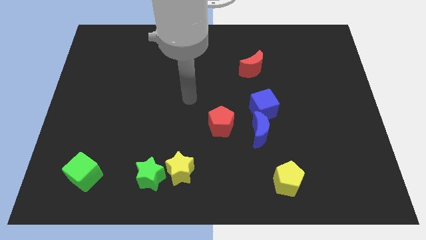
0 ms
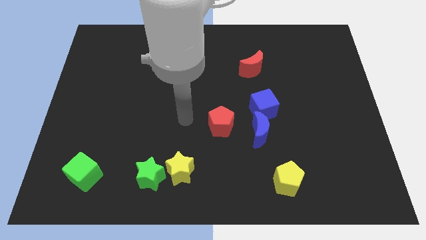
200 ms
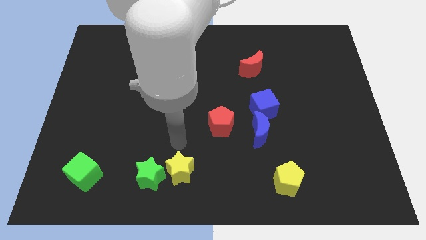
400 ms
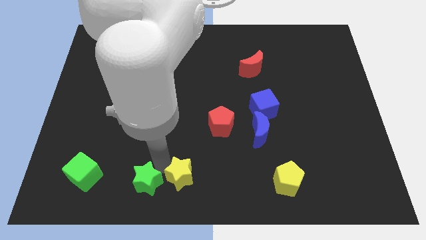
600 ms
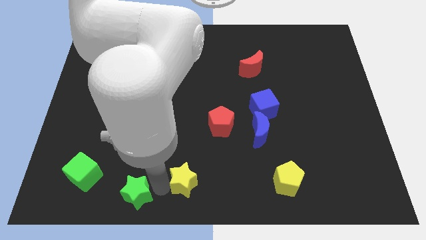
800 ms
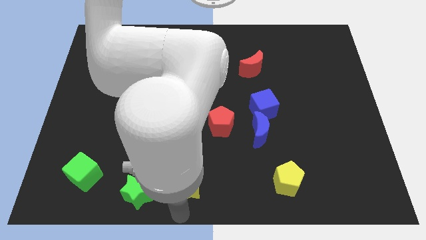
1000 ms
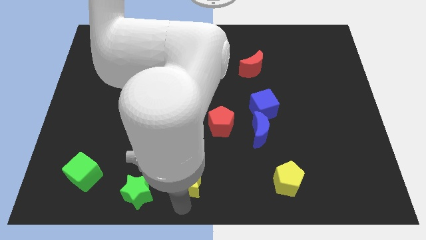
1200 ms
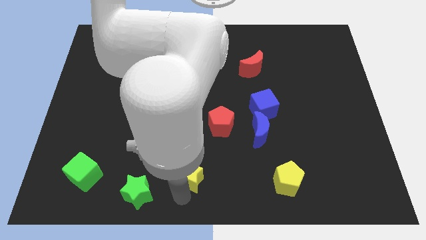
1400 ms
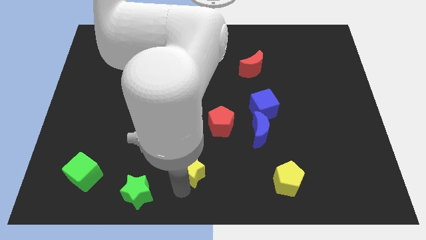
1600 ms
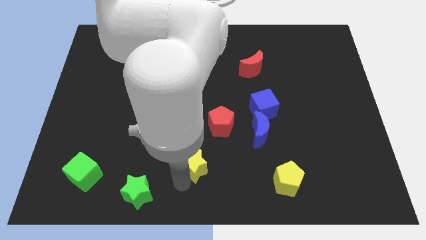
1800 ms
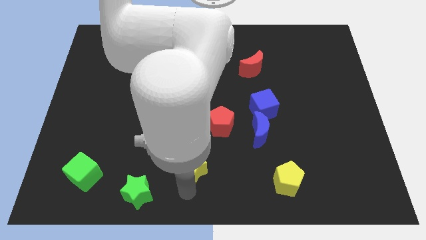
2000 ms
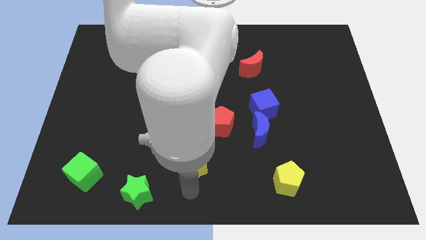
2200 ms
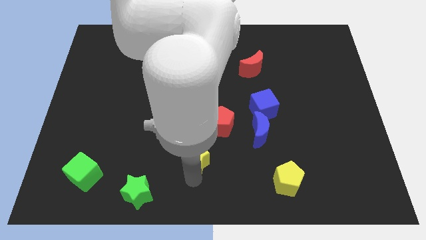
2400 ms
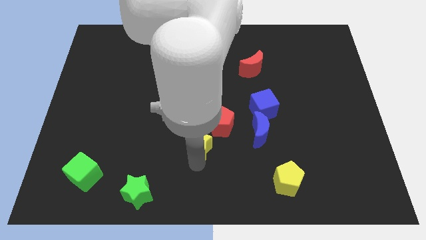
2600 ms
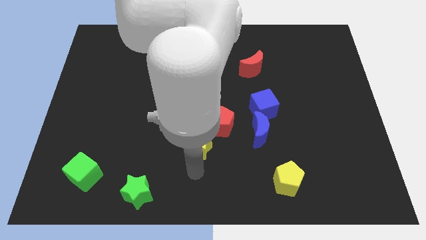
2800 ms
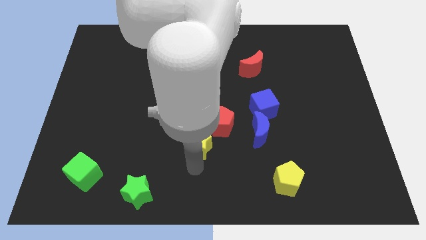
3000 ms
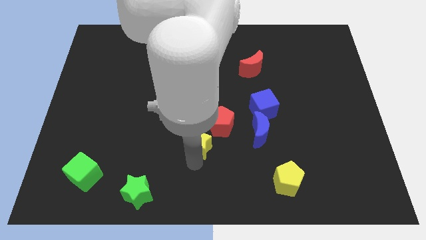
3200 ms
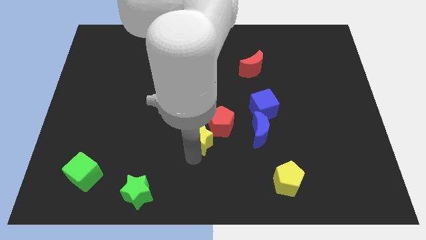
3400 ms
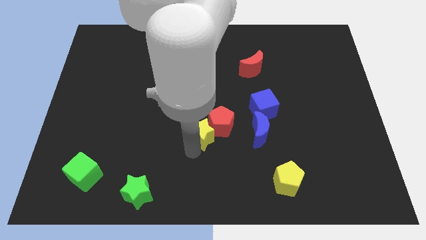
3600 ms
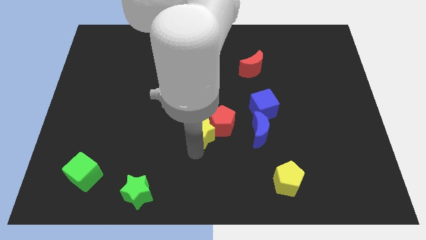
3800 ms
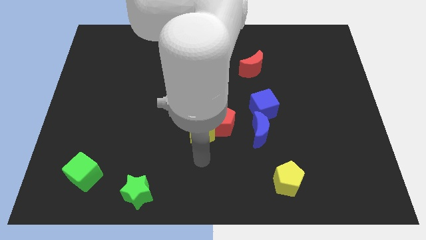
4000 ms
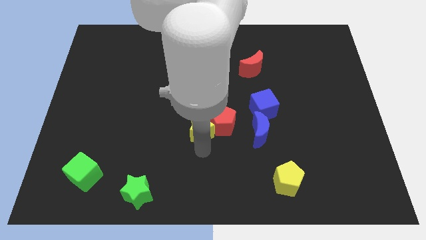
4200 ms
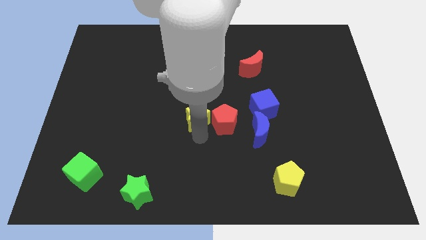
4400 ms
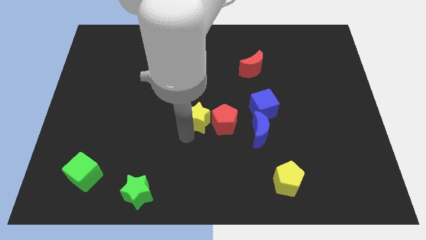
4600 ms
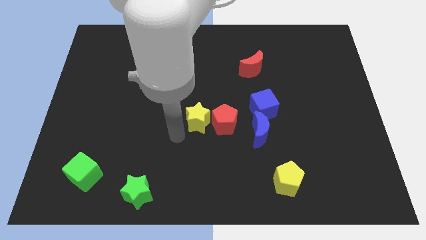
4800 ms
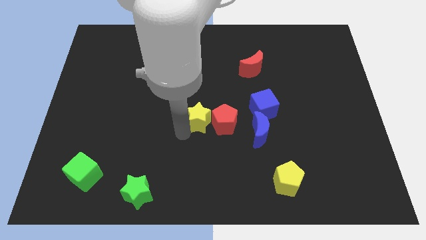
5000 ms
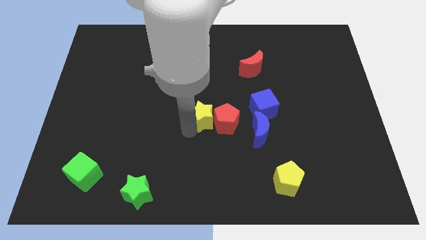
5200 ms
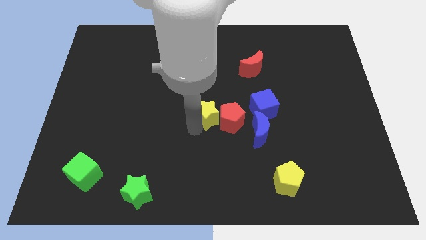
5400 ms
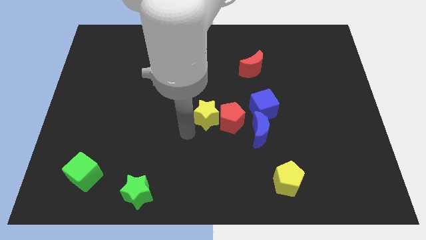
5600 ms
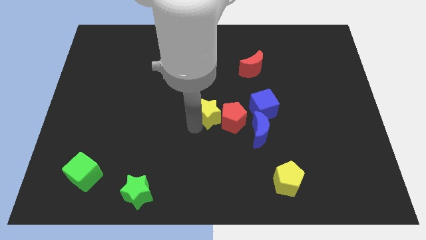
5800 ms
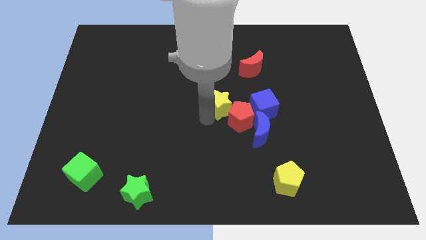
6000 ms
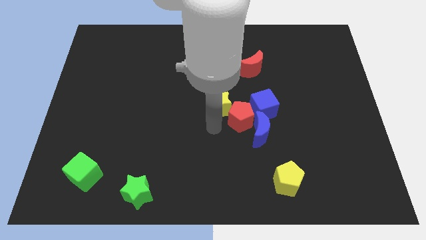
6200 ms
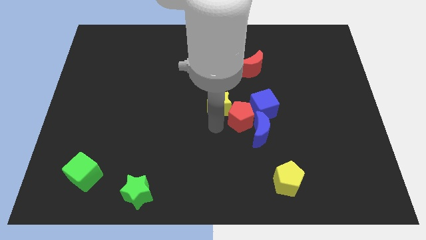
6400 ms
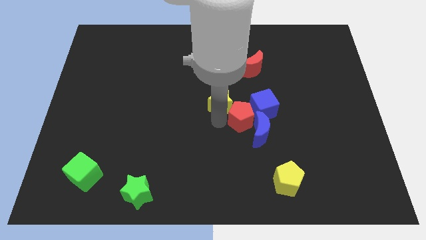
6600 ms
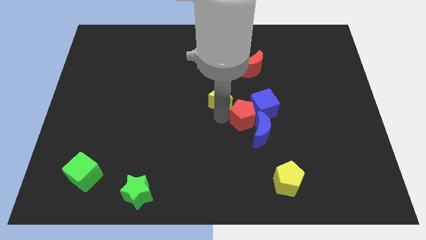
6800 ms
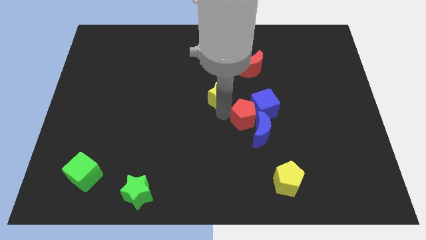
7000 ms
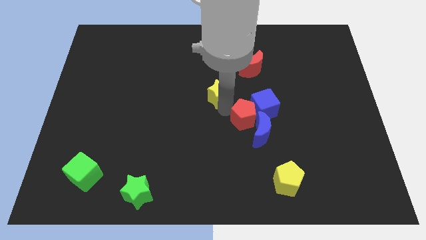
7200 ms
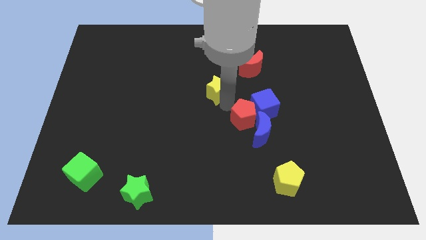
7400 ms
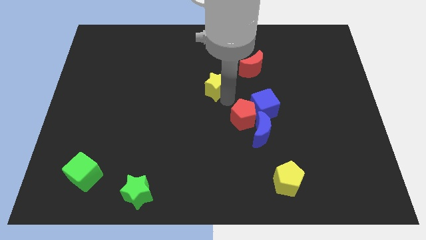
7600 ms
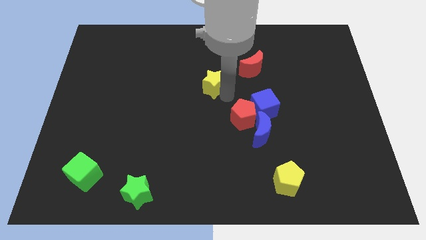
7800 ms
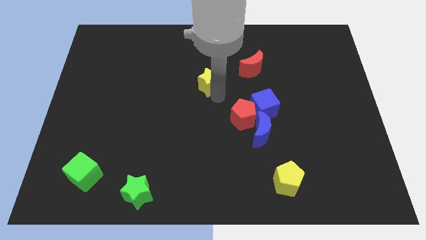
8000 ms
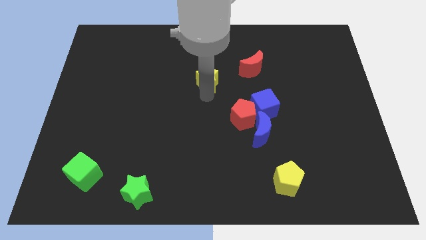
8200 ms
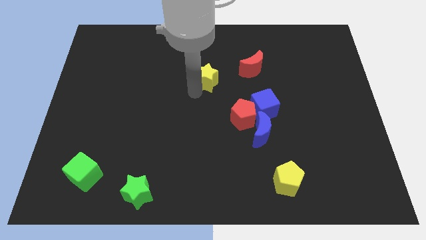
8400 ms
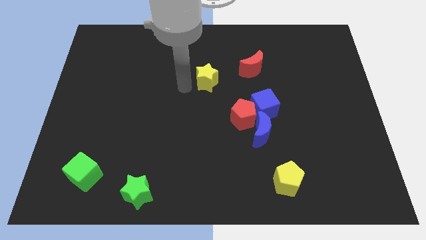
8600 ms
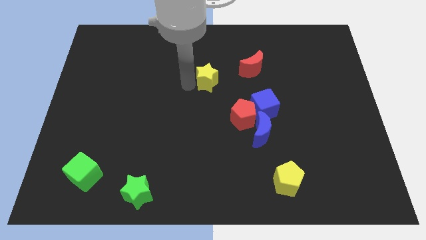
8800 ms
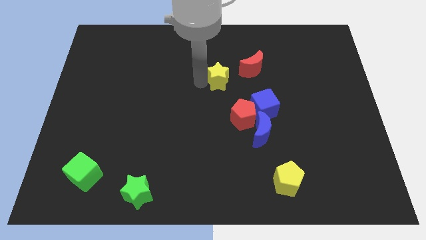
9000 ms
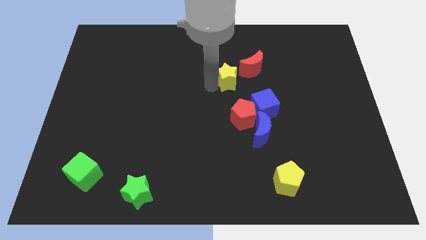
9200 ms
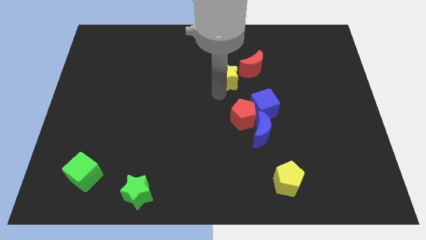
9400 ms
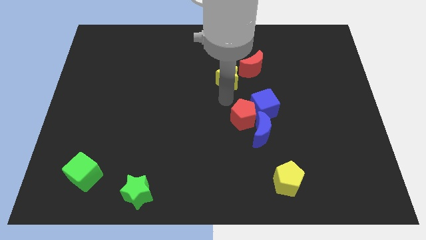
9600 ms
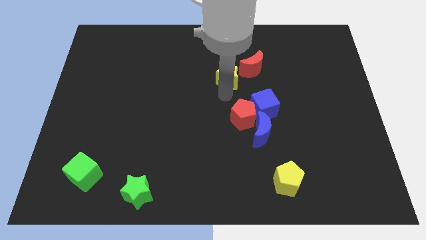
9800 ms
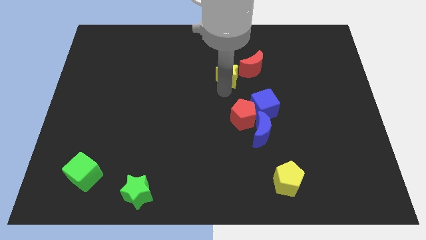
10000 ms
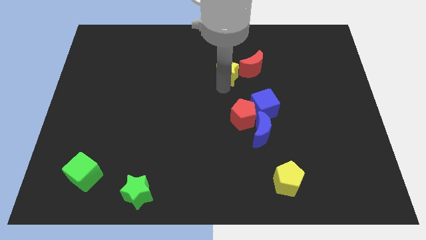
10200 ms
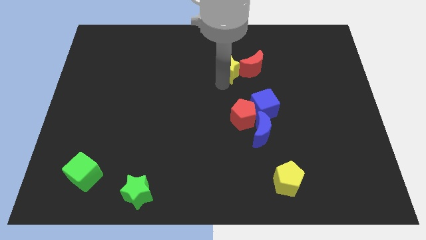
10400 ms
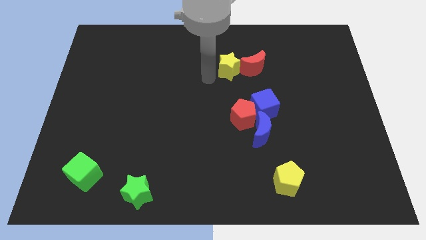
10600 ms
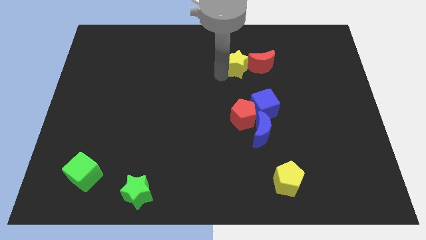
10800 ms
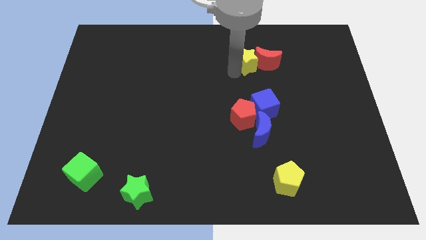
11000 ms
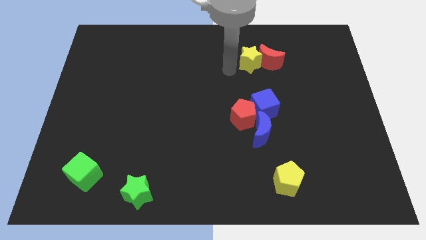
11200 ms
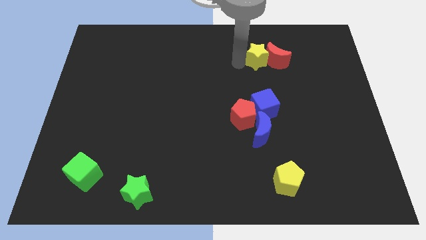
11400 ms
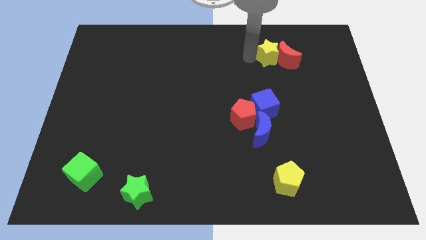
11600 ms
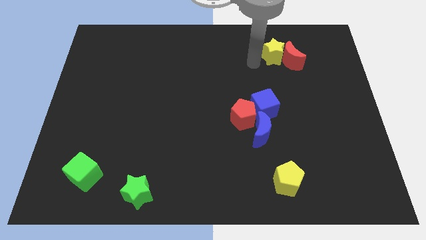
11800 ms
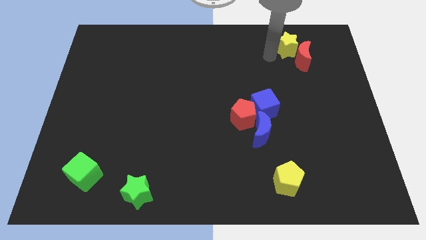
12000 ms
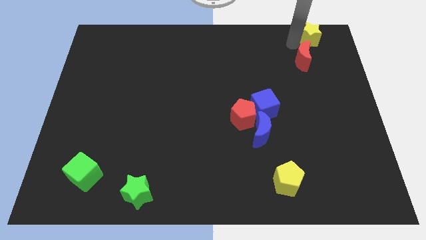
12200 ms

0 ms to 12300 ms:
slide the yellow star to the upper right corner

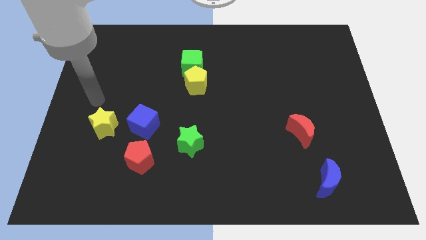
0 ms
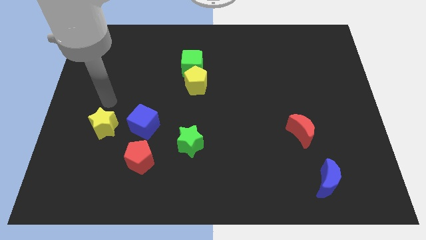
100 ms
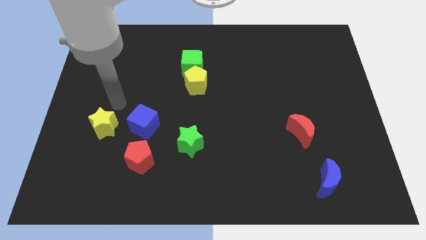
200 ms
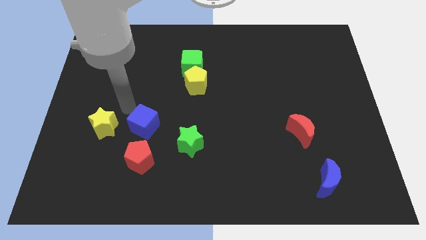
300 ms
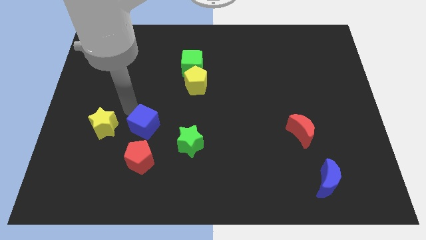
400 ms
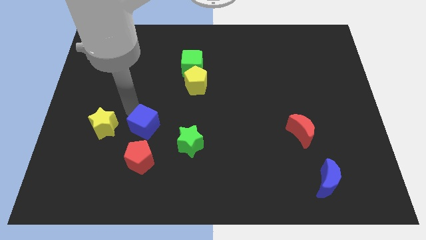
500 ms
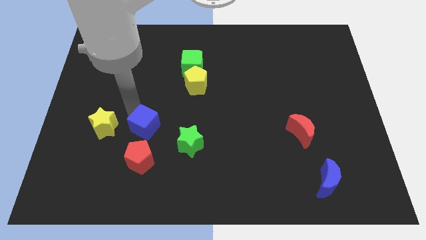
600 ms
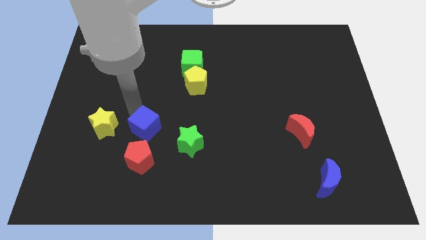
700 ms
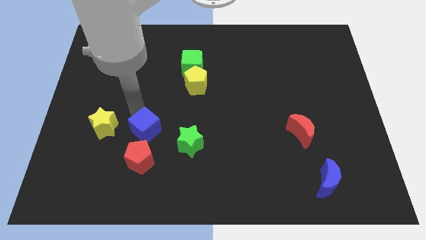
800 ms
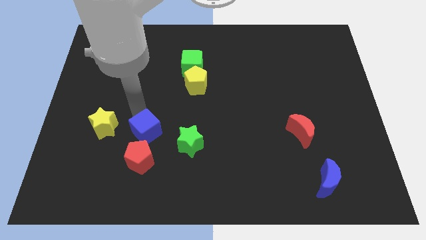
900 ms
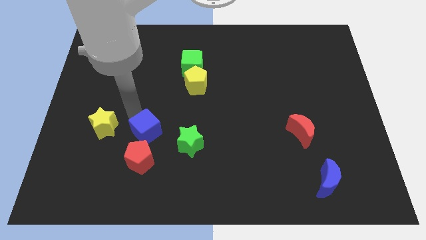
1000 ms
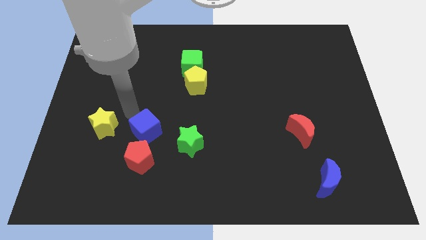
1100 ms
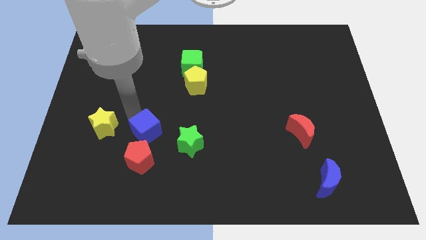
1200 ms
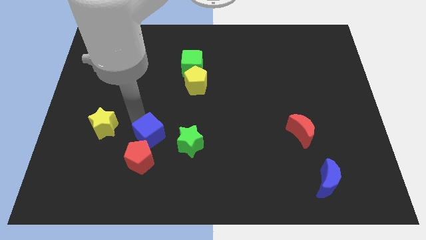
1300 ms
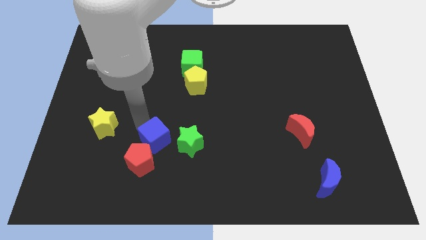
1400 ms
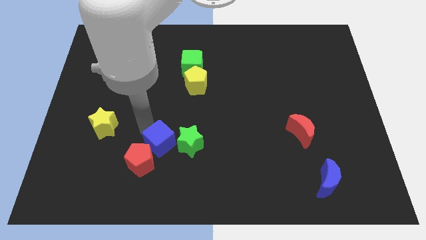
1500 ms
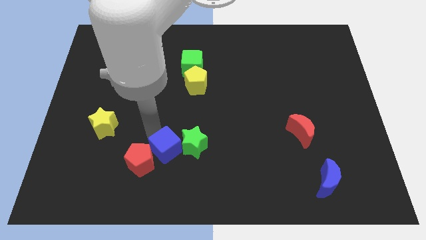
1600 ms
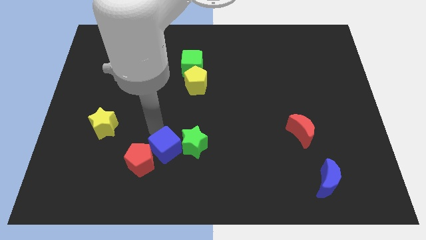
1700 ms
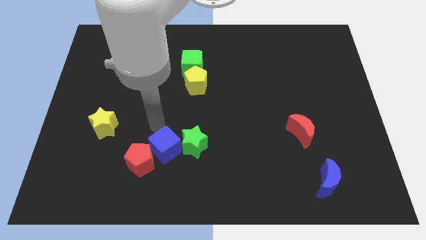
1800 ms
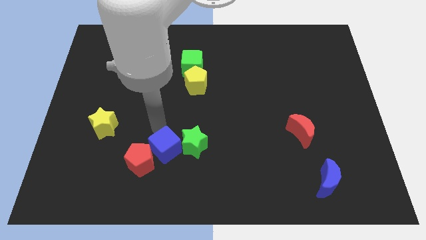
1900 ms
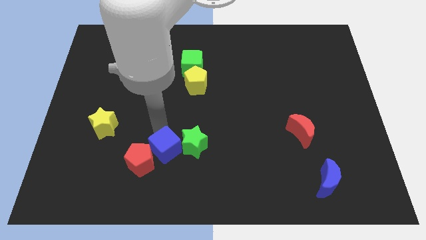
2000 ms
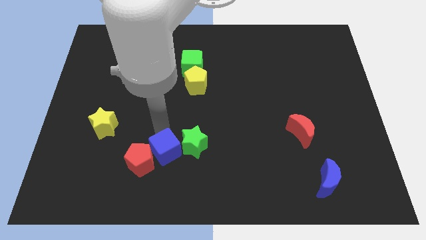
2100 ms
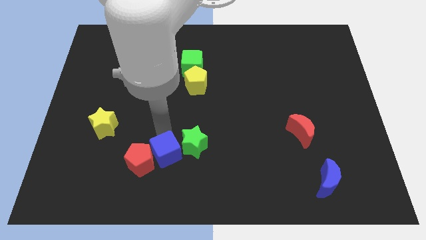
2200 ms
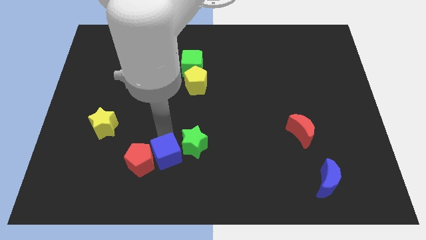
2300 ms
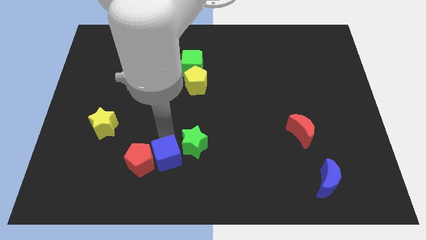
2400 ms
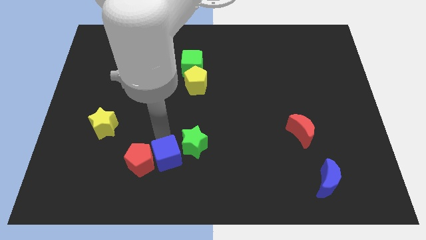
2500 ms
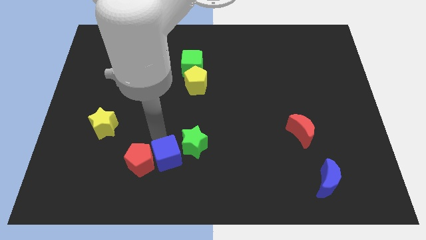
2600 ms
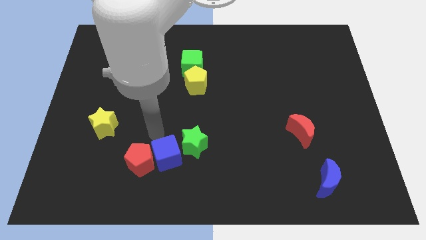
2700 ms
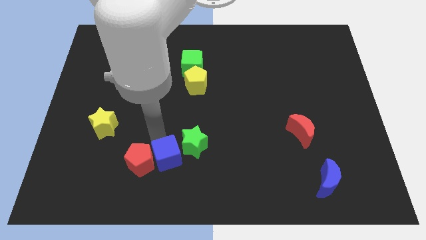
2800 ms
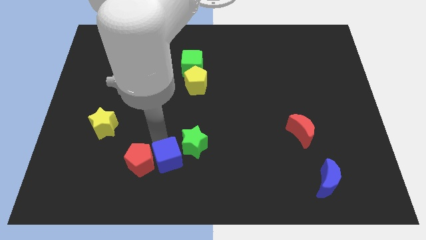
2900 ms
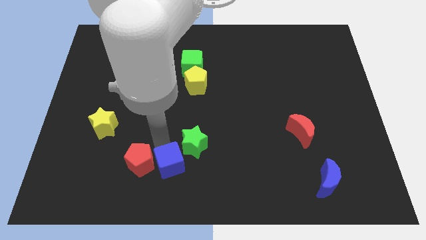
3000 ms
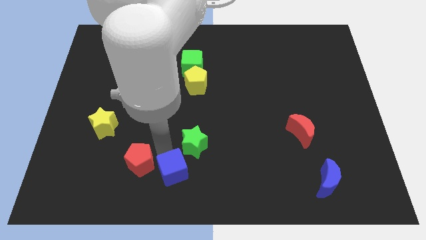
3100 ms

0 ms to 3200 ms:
push the blue cube to the bottom side
